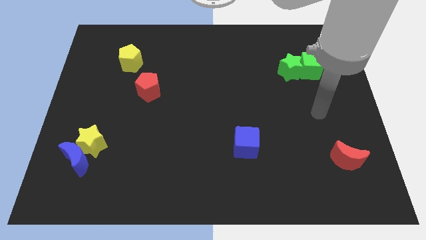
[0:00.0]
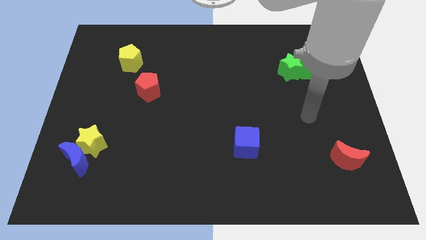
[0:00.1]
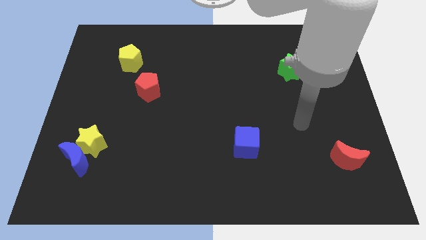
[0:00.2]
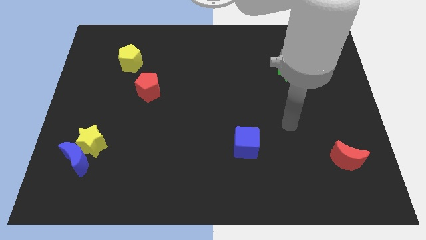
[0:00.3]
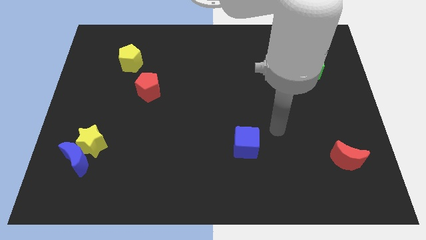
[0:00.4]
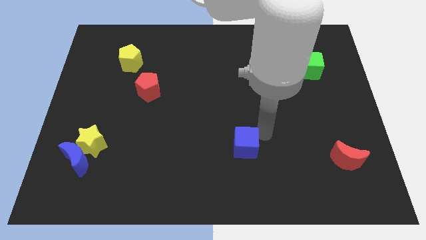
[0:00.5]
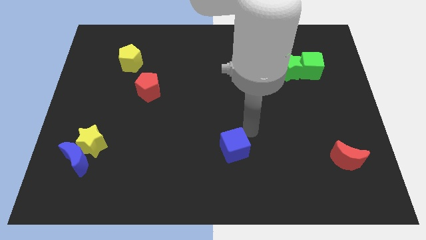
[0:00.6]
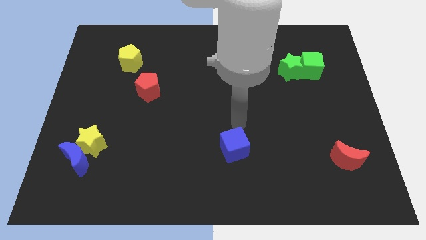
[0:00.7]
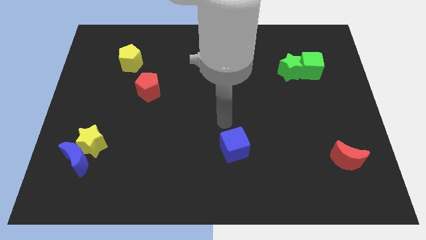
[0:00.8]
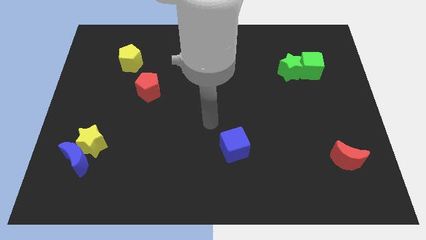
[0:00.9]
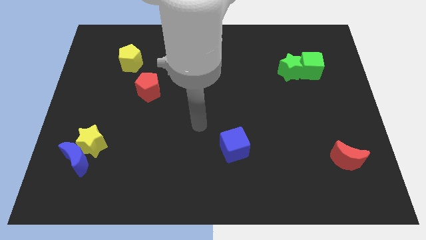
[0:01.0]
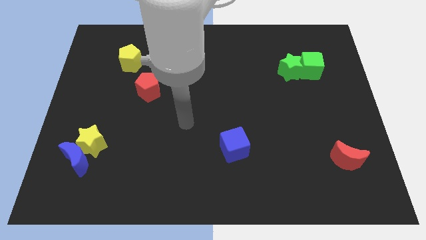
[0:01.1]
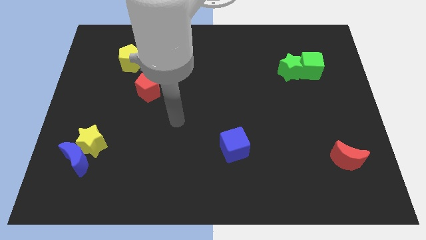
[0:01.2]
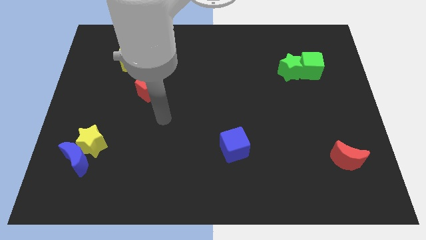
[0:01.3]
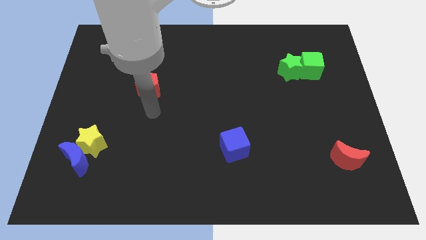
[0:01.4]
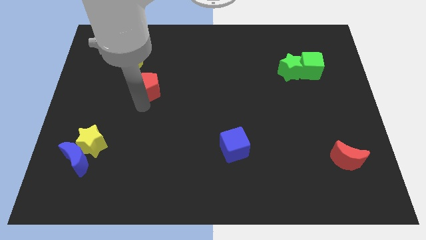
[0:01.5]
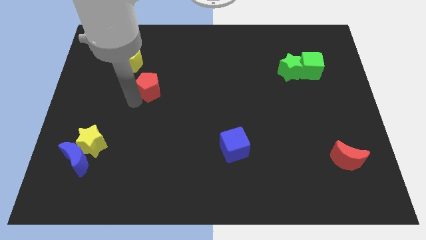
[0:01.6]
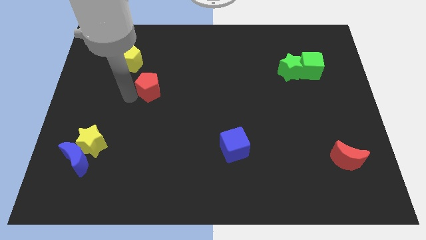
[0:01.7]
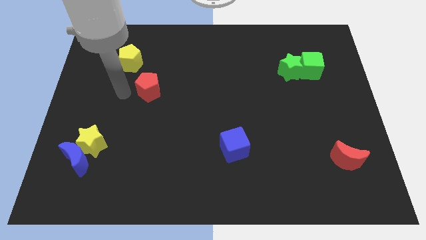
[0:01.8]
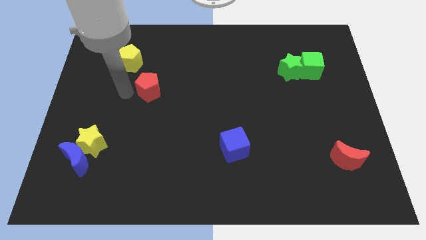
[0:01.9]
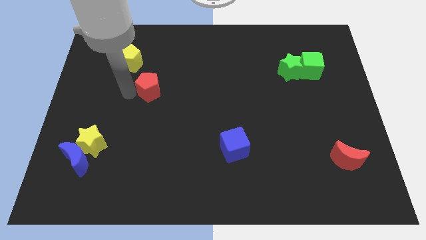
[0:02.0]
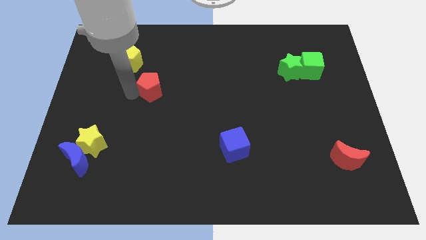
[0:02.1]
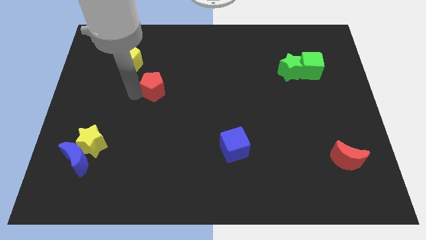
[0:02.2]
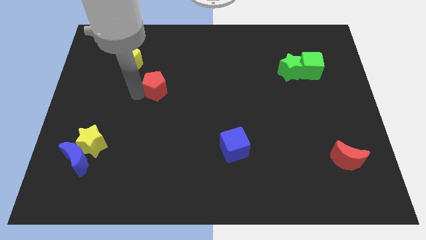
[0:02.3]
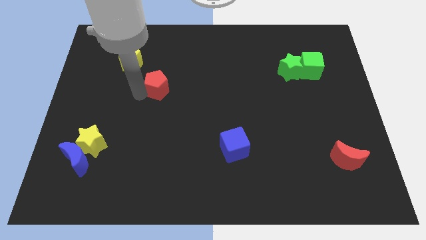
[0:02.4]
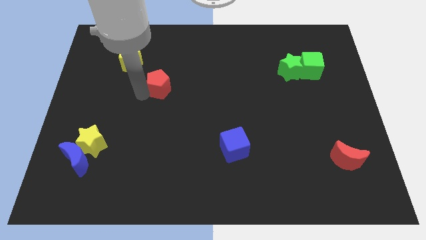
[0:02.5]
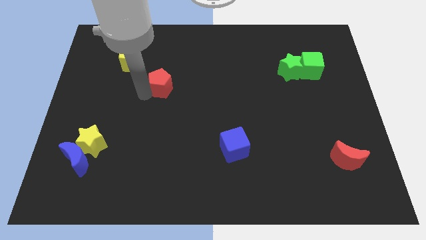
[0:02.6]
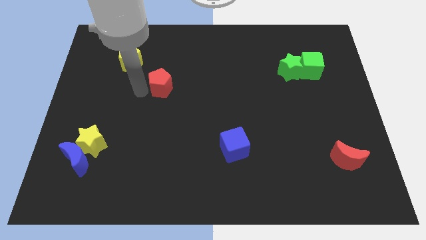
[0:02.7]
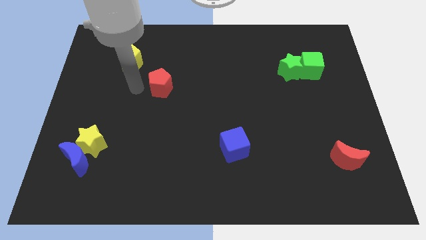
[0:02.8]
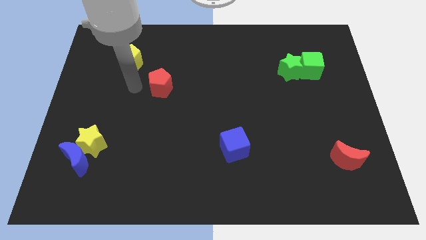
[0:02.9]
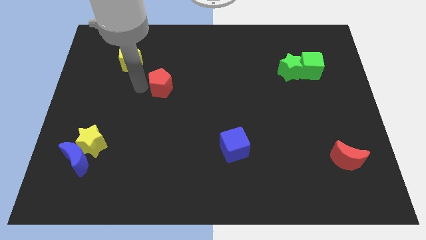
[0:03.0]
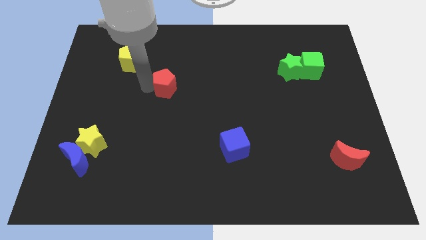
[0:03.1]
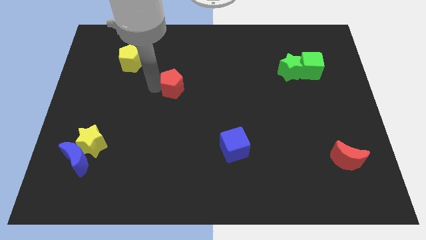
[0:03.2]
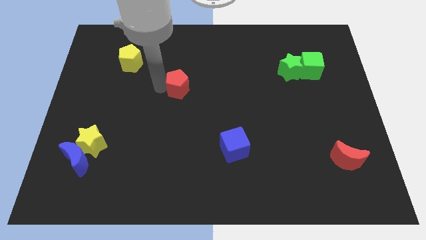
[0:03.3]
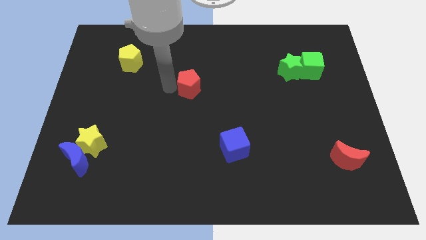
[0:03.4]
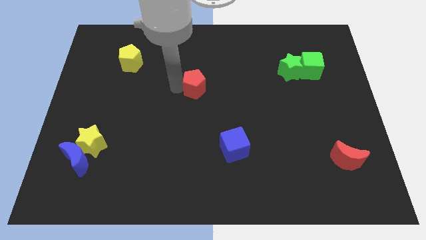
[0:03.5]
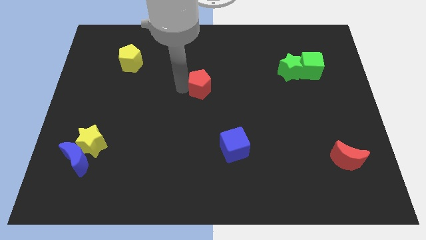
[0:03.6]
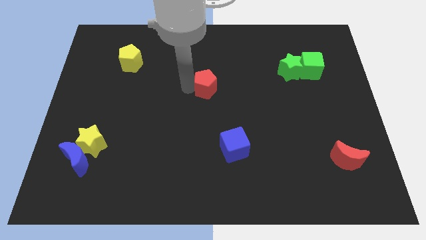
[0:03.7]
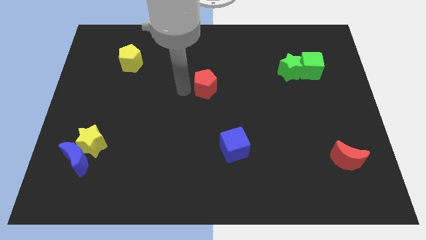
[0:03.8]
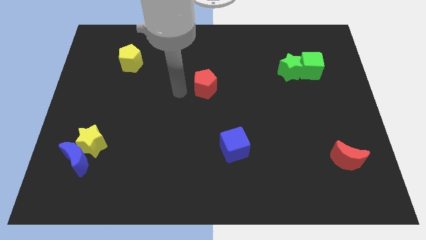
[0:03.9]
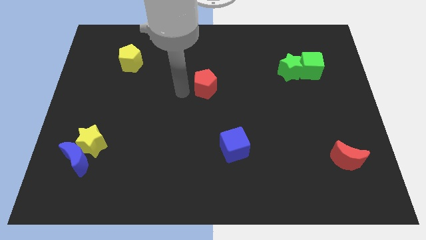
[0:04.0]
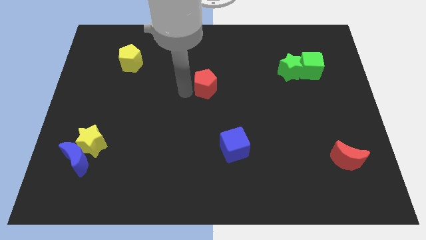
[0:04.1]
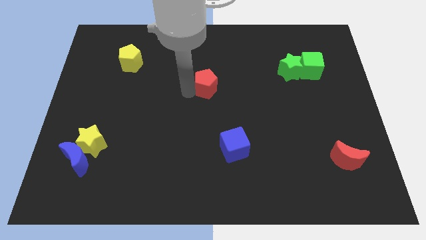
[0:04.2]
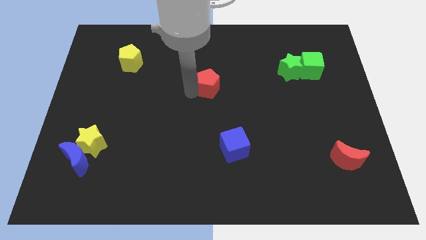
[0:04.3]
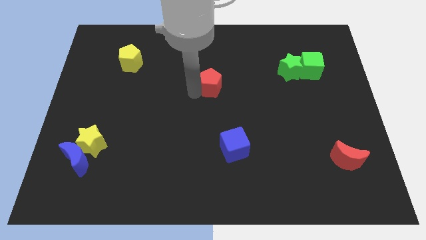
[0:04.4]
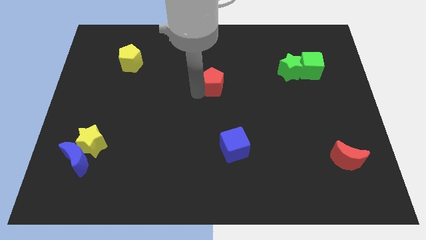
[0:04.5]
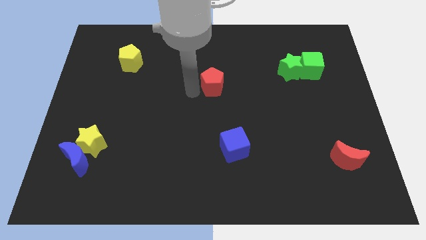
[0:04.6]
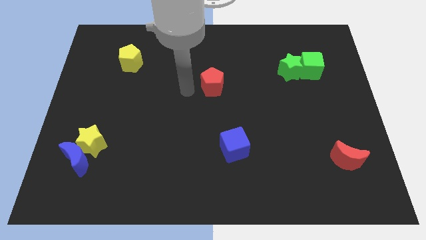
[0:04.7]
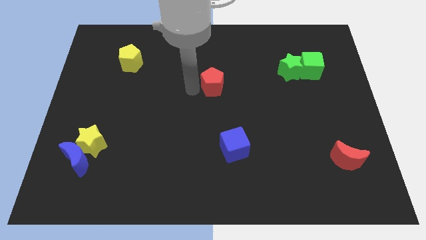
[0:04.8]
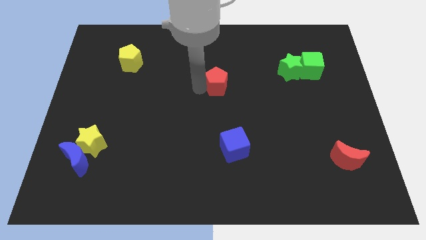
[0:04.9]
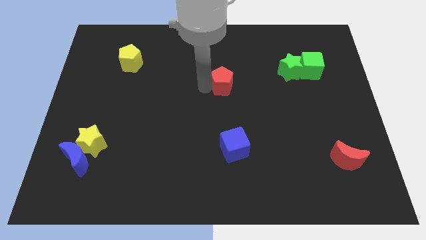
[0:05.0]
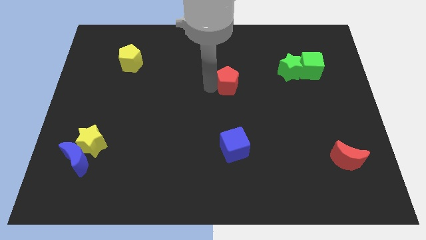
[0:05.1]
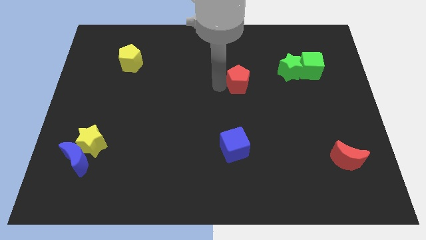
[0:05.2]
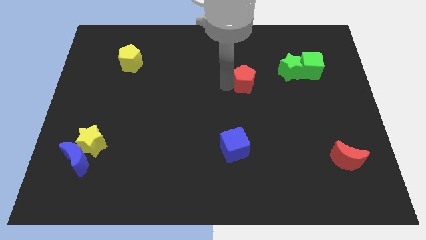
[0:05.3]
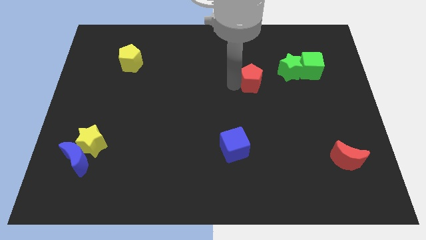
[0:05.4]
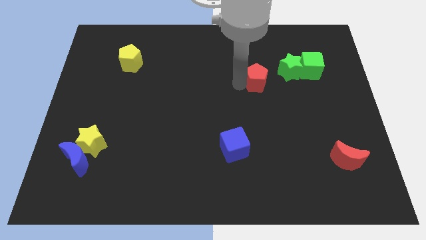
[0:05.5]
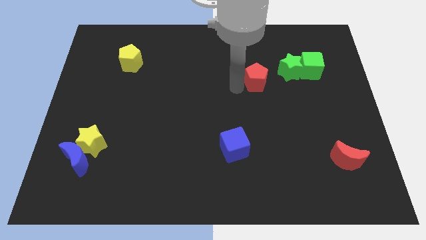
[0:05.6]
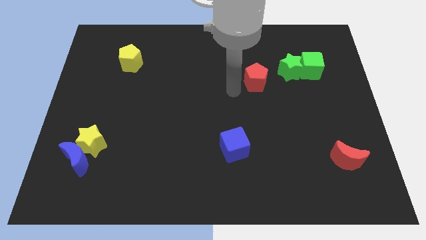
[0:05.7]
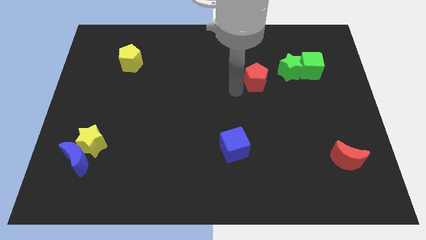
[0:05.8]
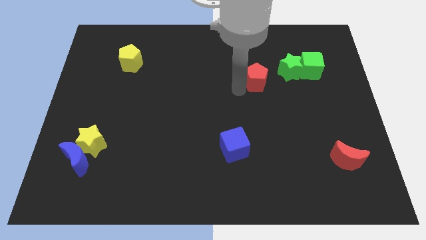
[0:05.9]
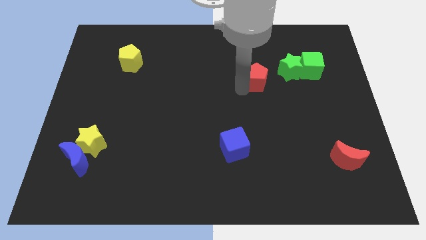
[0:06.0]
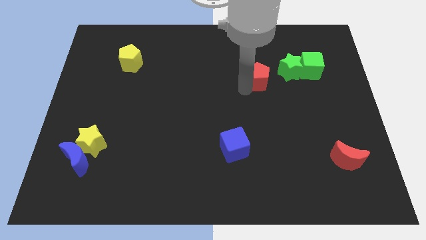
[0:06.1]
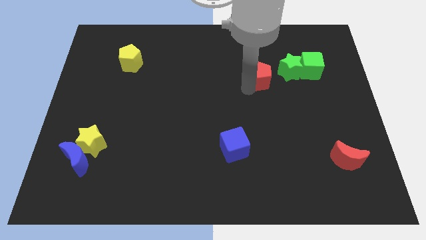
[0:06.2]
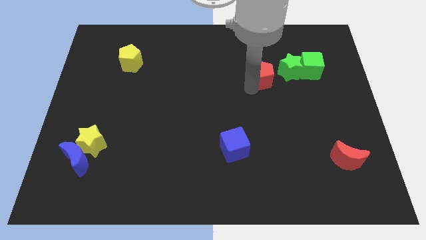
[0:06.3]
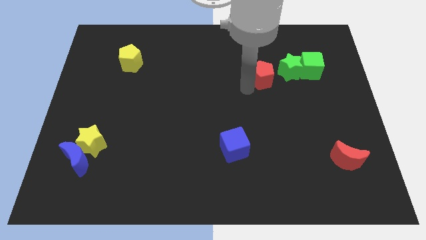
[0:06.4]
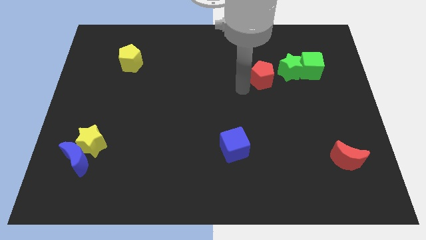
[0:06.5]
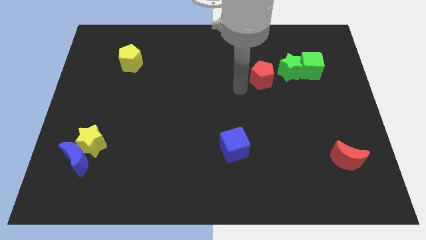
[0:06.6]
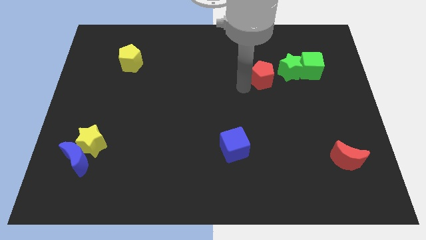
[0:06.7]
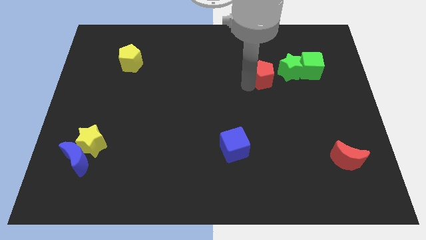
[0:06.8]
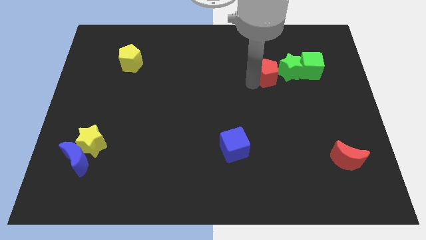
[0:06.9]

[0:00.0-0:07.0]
push the red pentagon close to the green star
